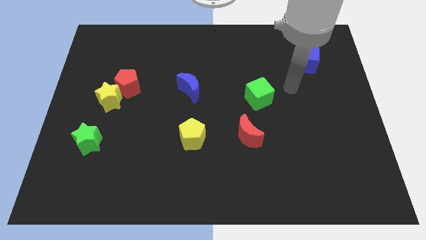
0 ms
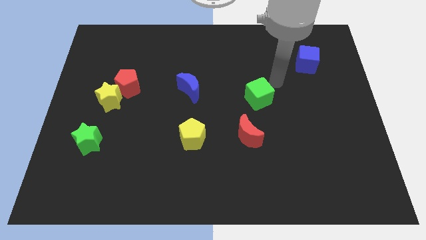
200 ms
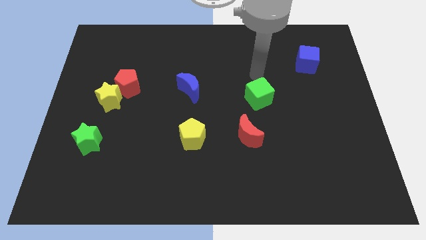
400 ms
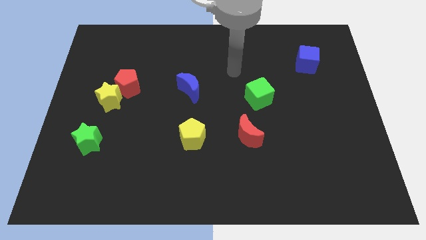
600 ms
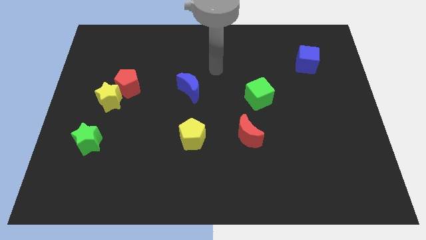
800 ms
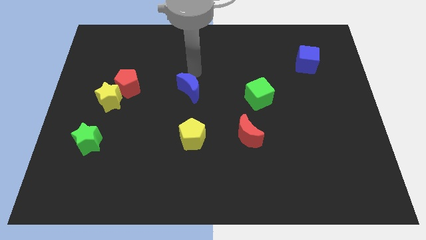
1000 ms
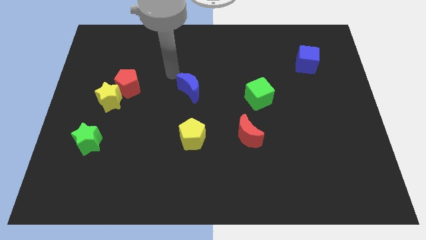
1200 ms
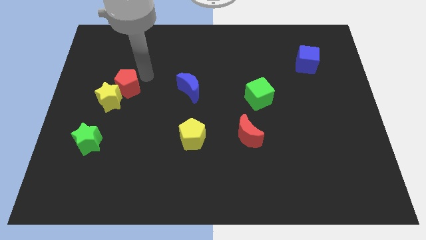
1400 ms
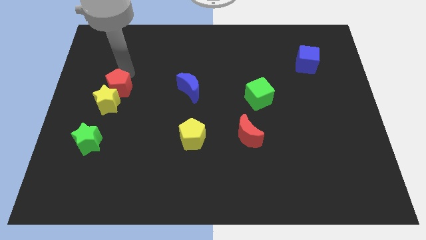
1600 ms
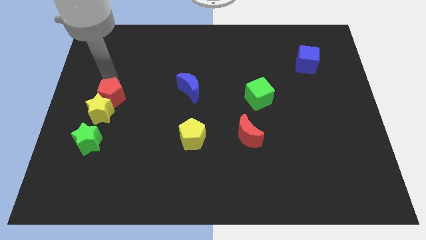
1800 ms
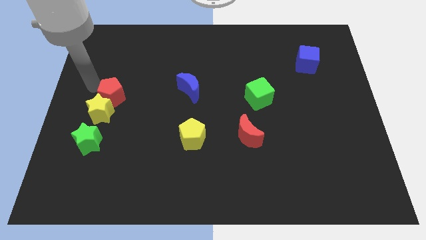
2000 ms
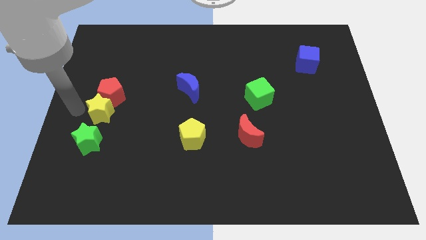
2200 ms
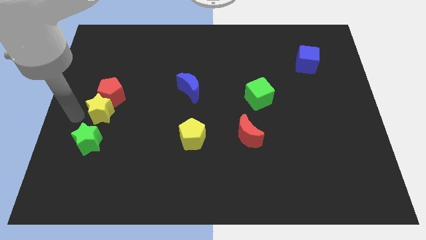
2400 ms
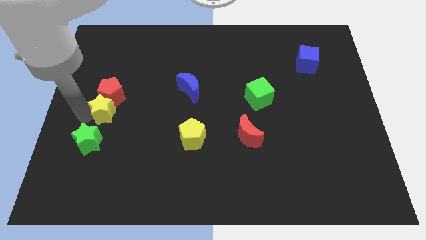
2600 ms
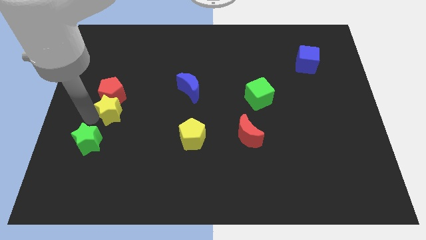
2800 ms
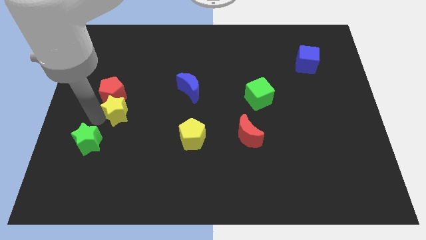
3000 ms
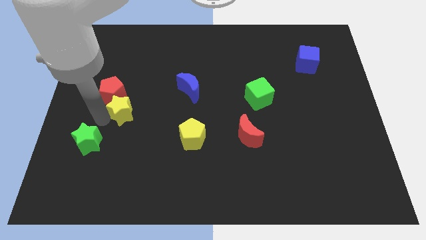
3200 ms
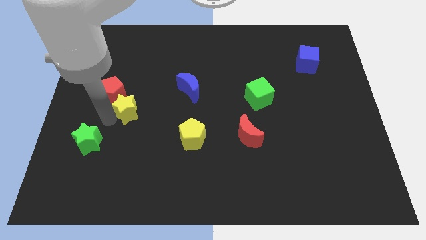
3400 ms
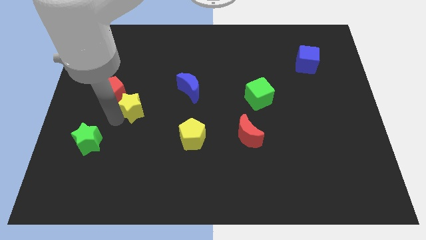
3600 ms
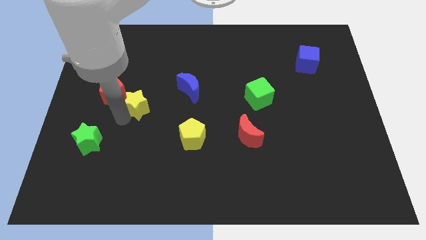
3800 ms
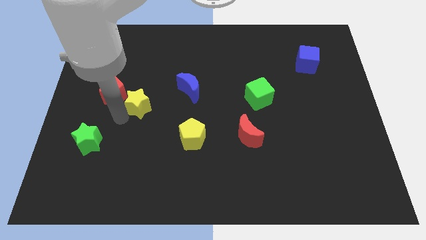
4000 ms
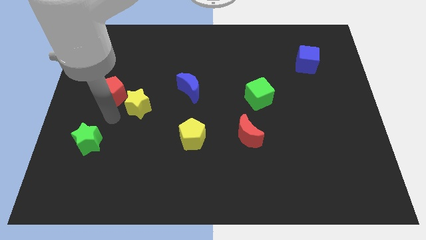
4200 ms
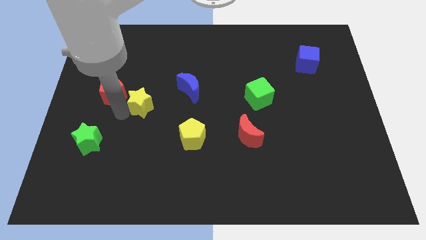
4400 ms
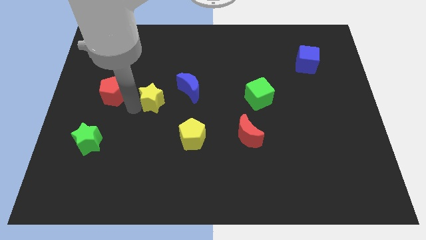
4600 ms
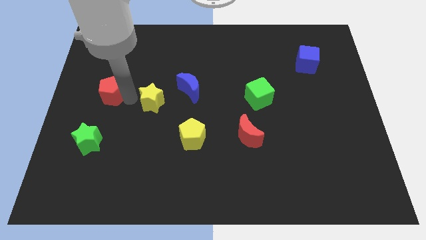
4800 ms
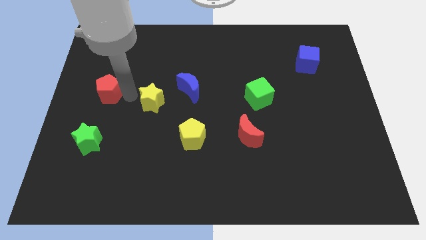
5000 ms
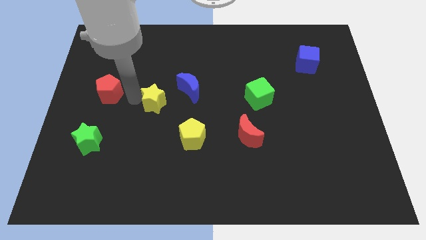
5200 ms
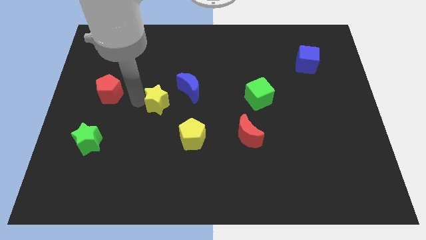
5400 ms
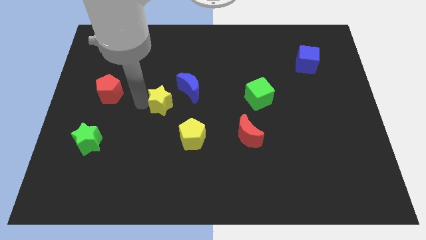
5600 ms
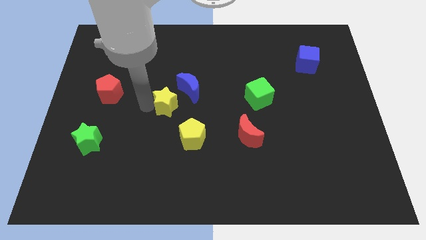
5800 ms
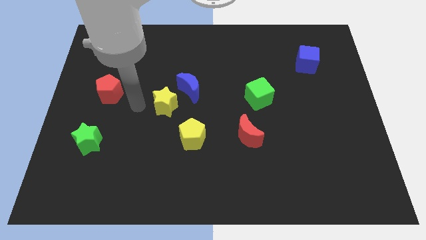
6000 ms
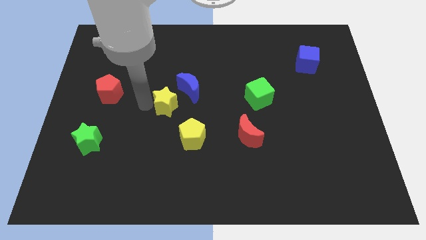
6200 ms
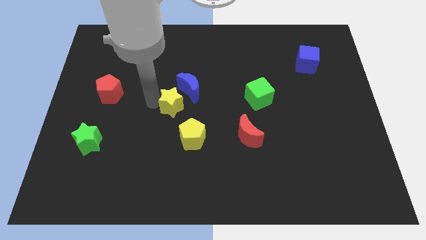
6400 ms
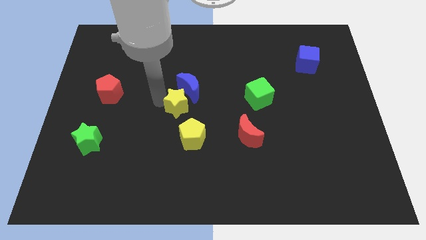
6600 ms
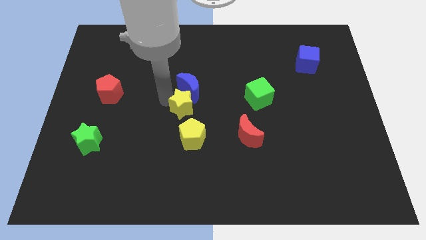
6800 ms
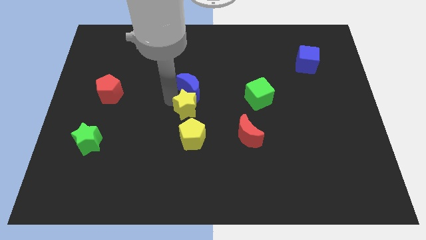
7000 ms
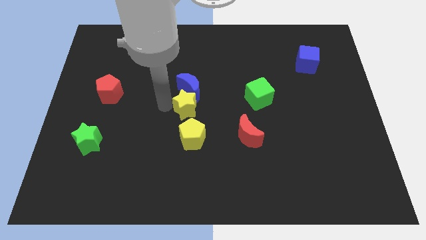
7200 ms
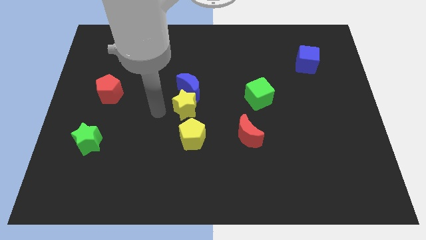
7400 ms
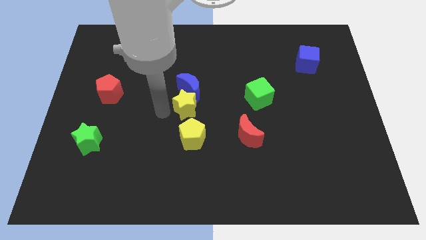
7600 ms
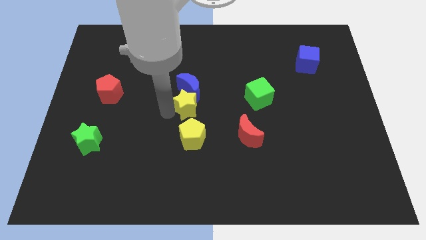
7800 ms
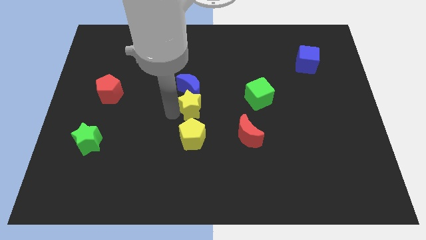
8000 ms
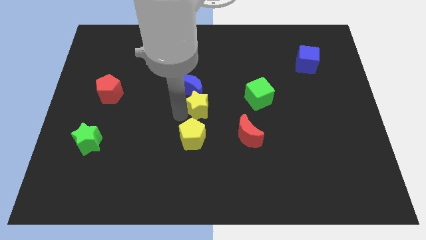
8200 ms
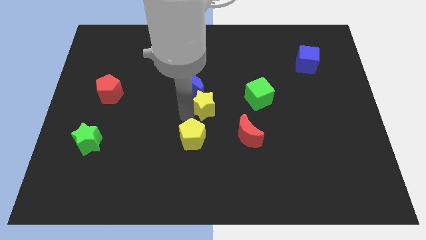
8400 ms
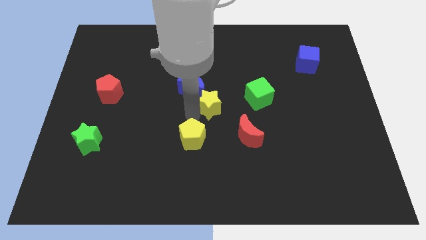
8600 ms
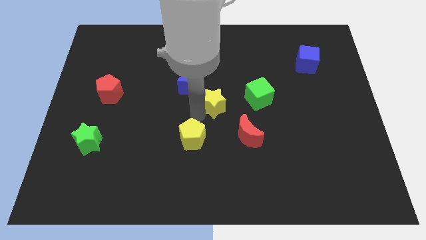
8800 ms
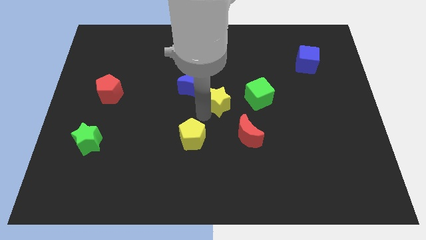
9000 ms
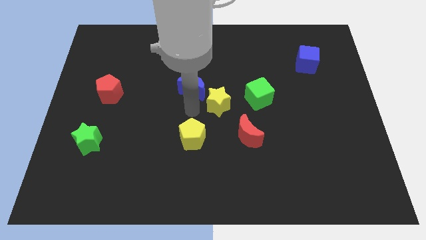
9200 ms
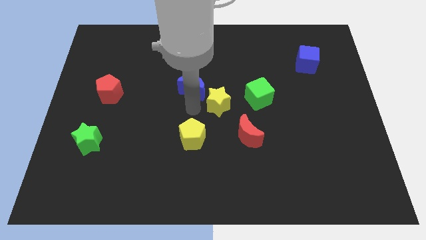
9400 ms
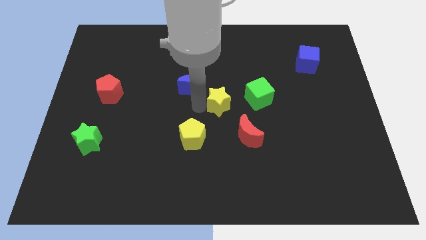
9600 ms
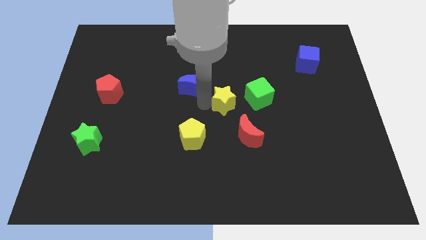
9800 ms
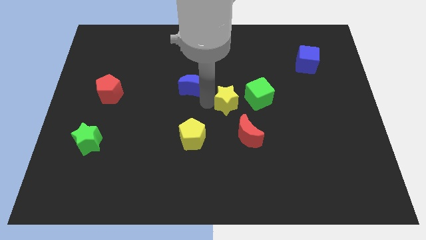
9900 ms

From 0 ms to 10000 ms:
put the yellow star above the red moon

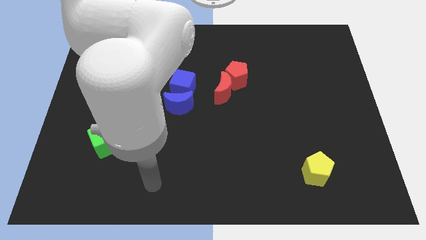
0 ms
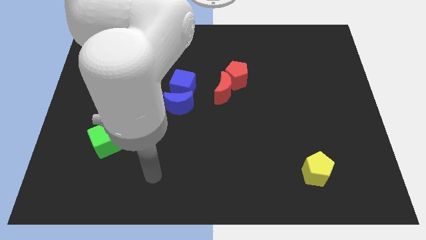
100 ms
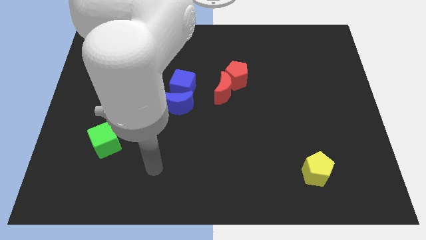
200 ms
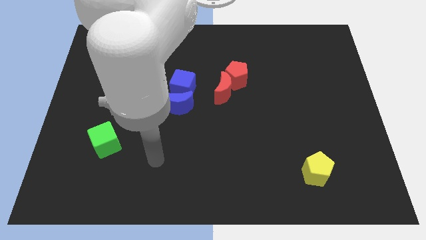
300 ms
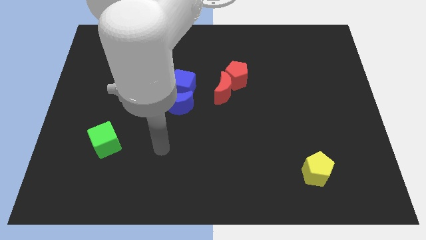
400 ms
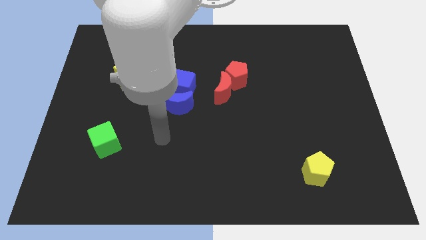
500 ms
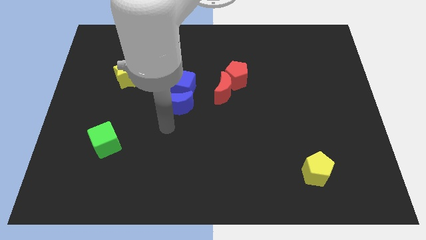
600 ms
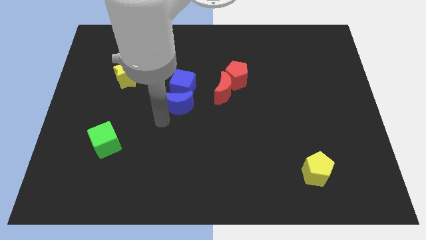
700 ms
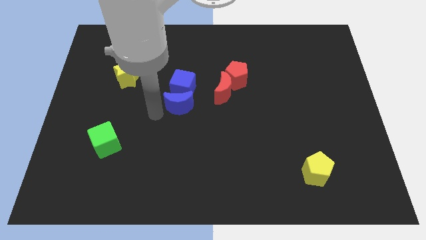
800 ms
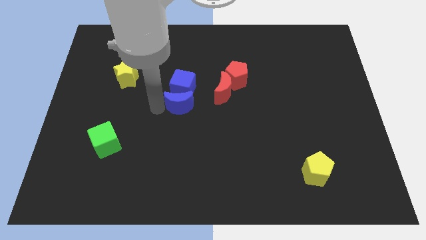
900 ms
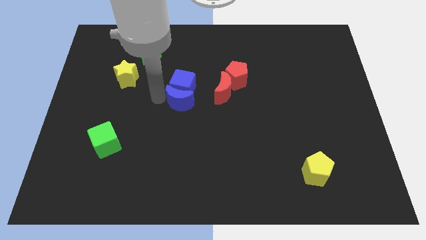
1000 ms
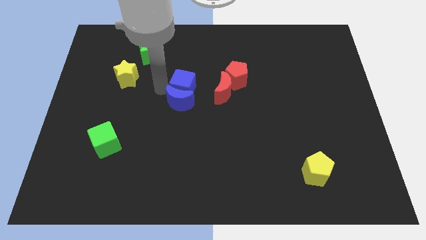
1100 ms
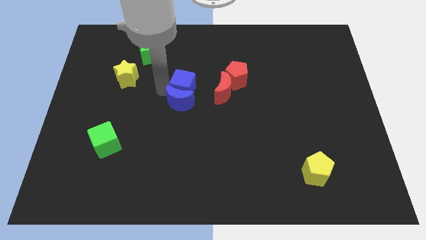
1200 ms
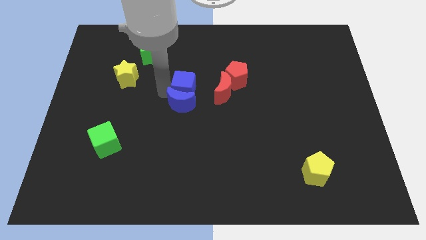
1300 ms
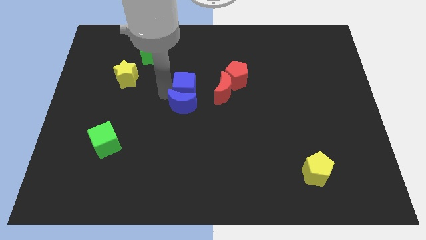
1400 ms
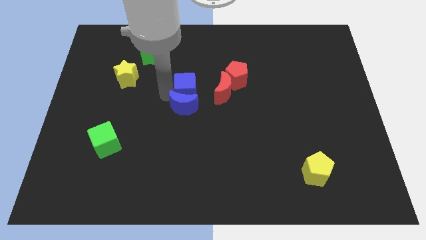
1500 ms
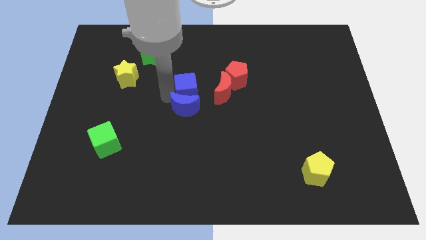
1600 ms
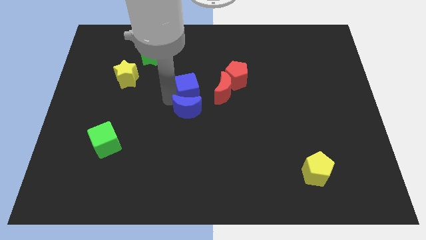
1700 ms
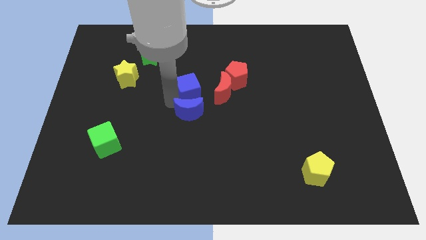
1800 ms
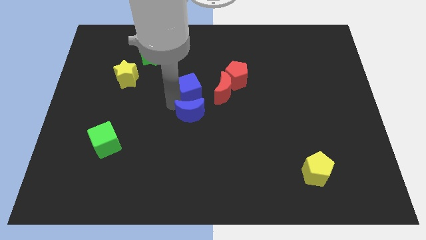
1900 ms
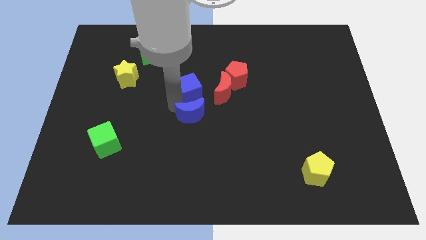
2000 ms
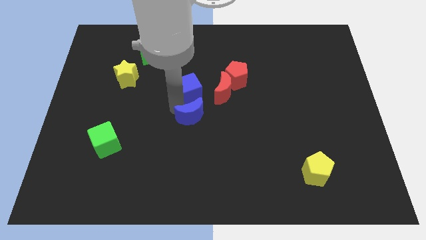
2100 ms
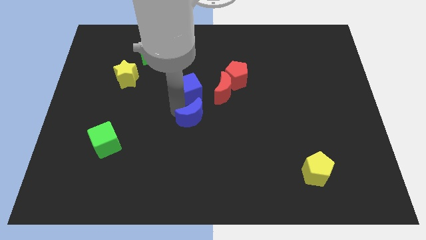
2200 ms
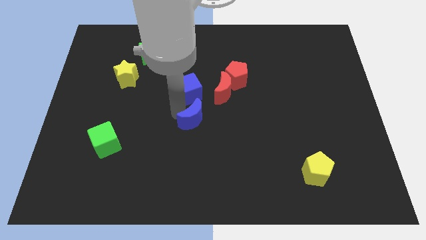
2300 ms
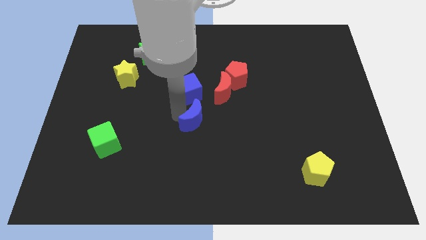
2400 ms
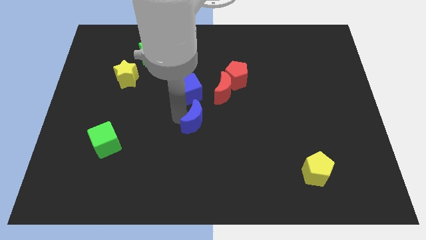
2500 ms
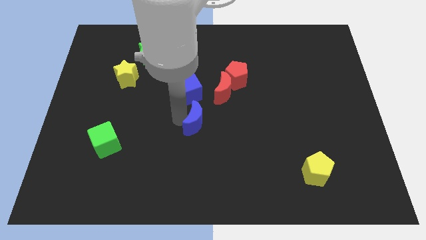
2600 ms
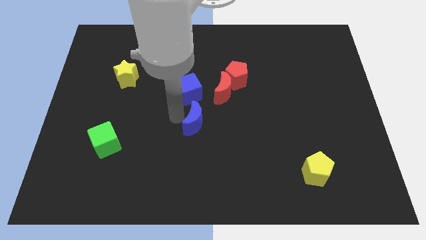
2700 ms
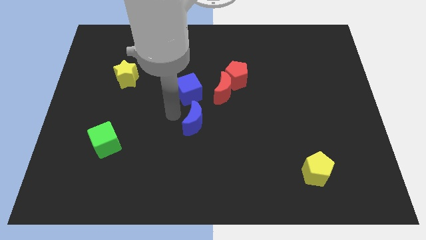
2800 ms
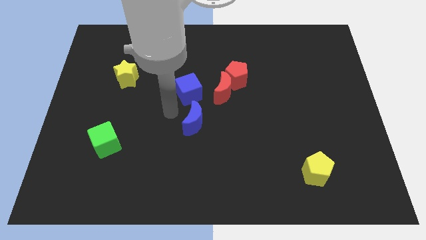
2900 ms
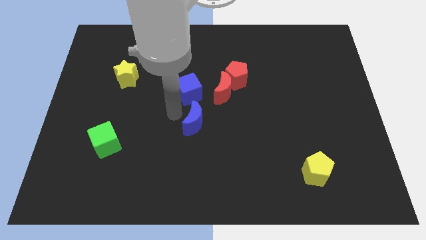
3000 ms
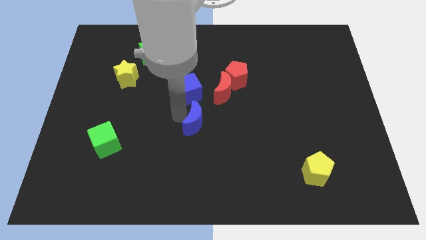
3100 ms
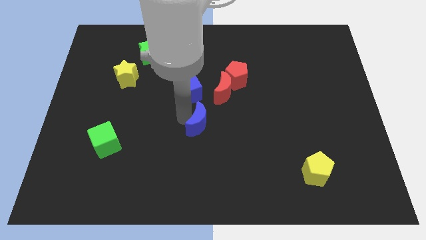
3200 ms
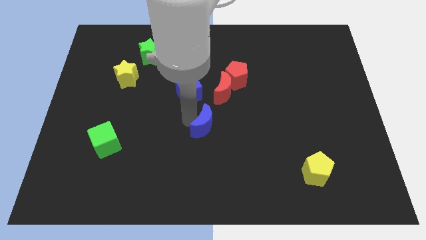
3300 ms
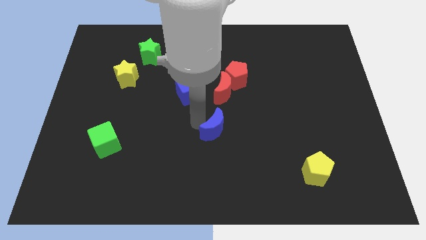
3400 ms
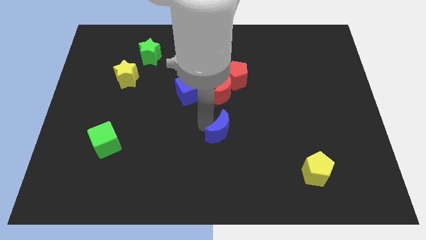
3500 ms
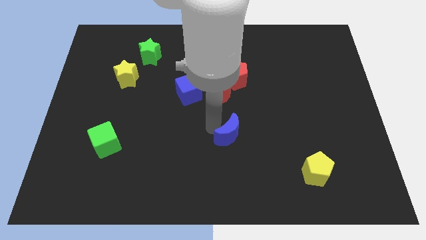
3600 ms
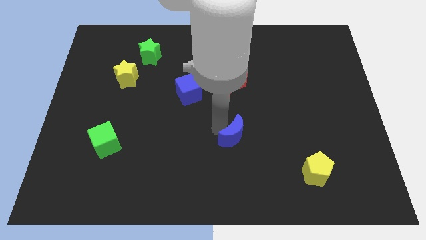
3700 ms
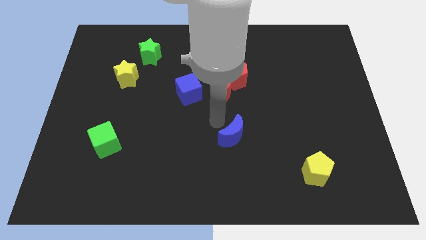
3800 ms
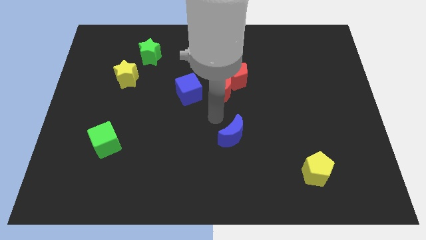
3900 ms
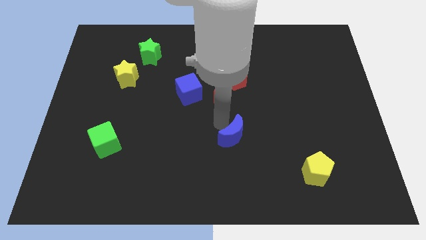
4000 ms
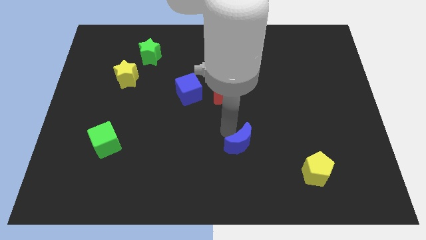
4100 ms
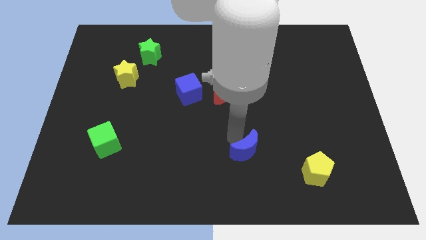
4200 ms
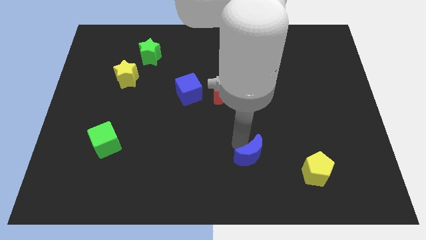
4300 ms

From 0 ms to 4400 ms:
put the blue moon left of the yellow pentagon
